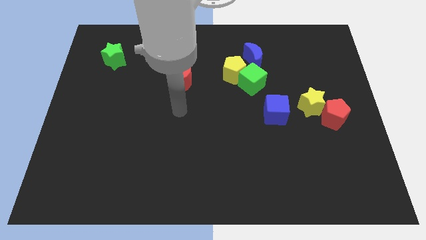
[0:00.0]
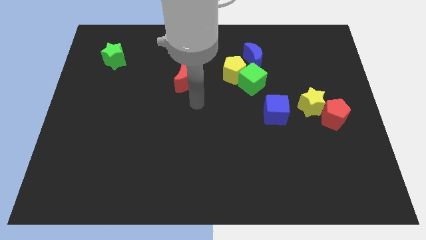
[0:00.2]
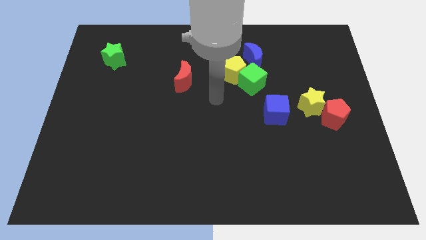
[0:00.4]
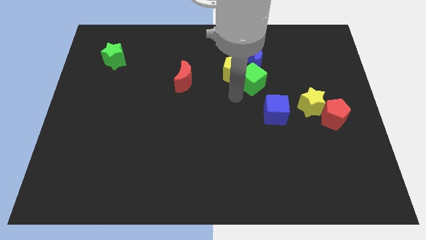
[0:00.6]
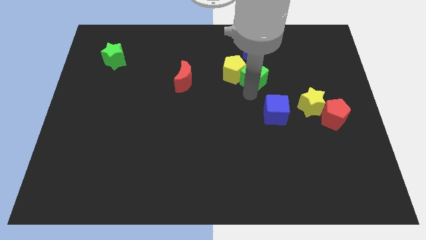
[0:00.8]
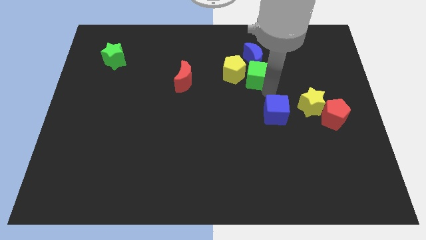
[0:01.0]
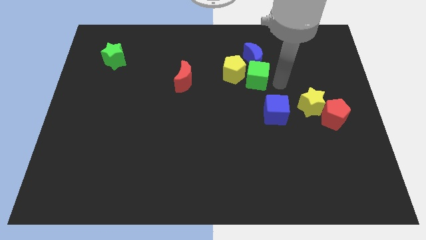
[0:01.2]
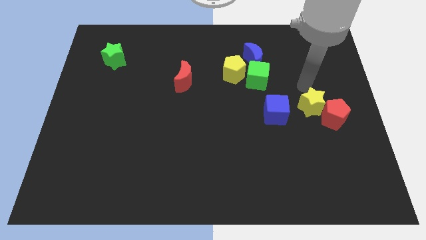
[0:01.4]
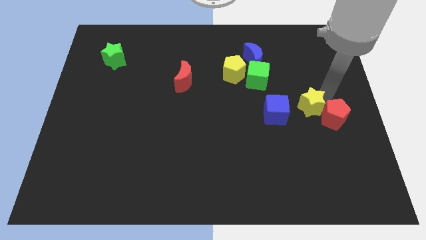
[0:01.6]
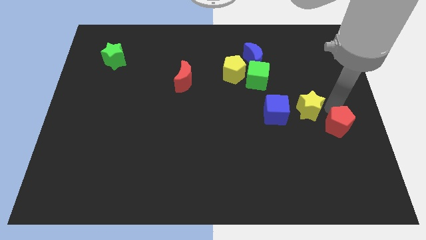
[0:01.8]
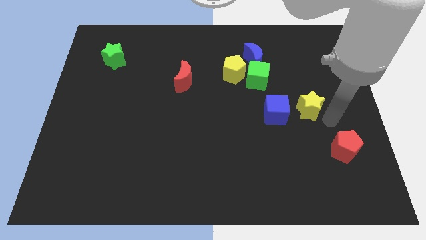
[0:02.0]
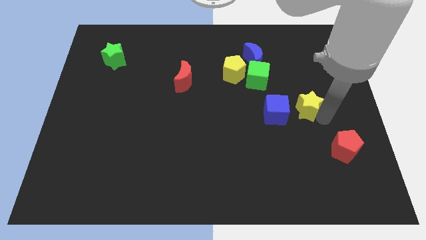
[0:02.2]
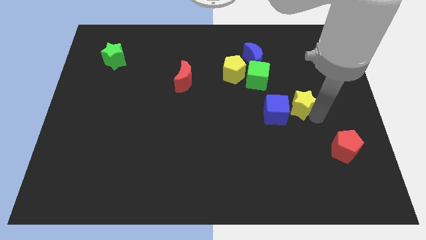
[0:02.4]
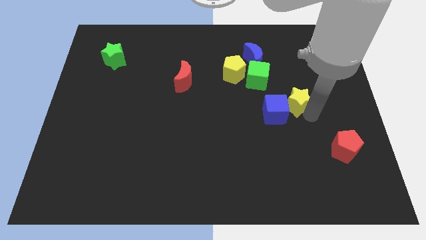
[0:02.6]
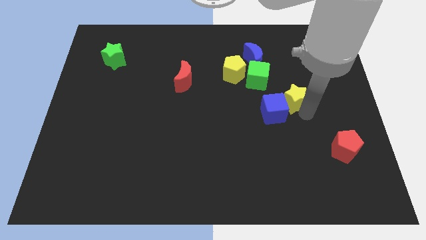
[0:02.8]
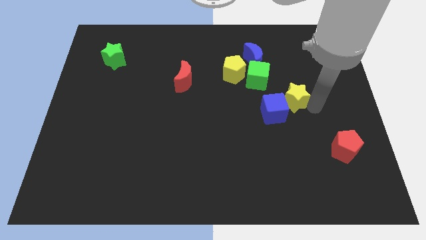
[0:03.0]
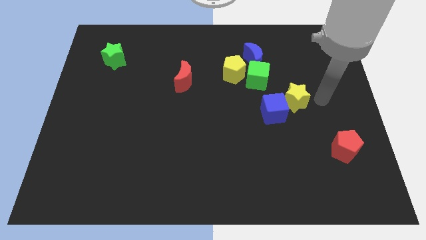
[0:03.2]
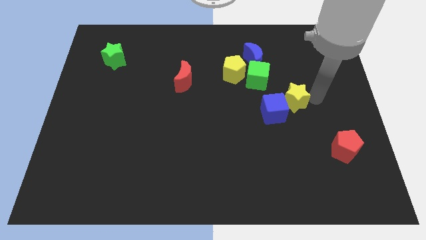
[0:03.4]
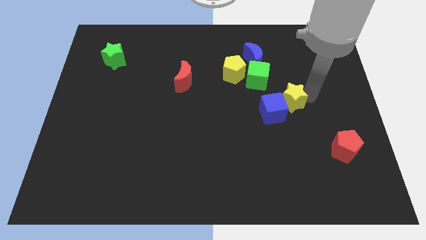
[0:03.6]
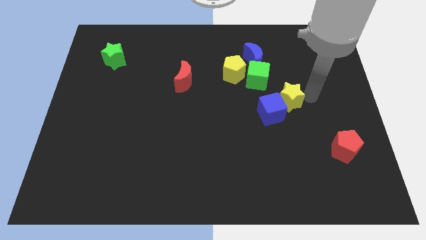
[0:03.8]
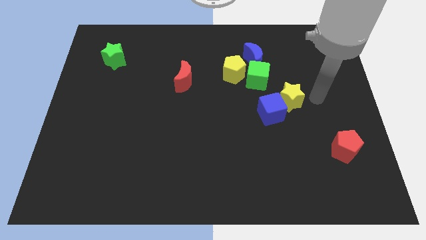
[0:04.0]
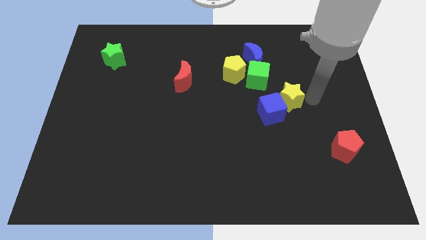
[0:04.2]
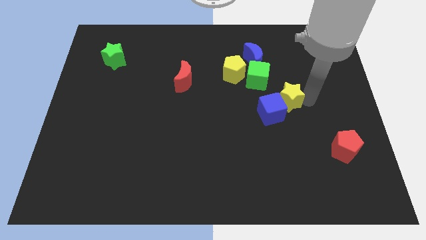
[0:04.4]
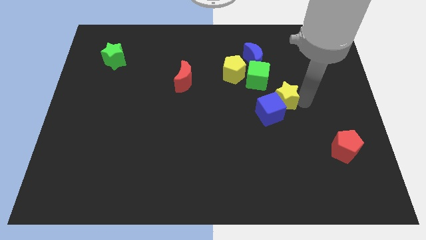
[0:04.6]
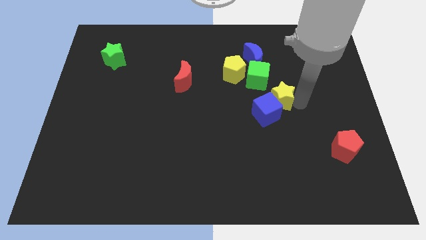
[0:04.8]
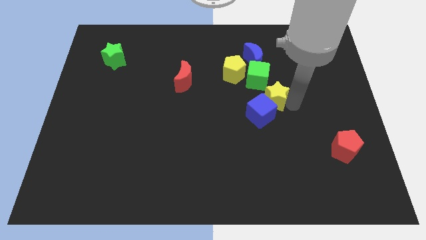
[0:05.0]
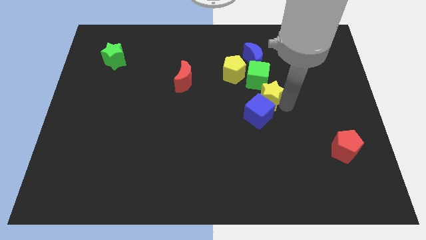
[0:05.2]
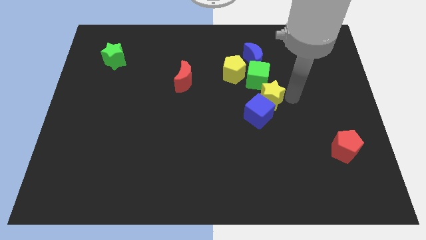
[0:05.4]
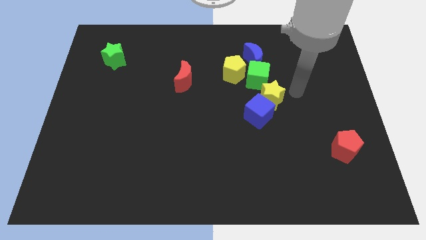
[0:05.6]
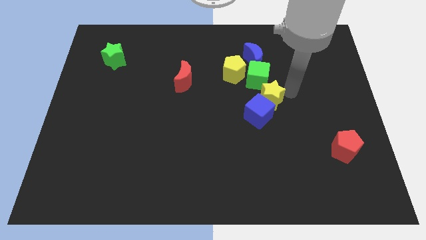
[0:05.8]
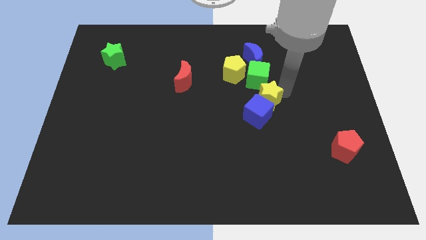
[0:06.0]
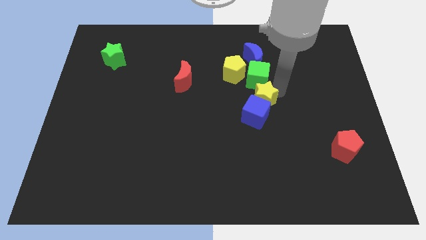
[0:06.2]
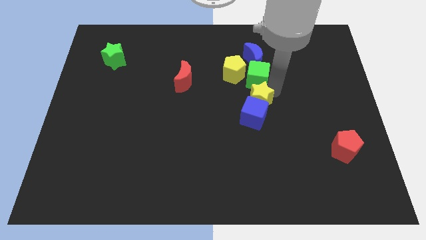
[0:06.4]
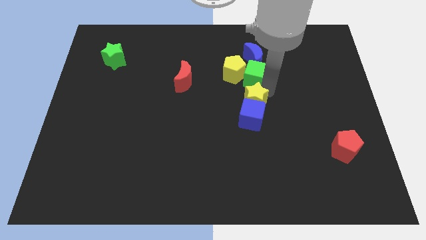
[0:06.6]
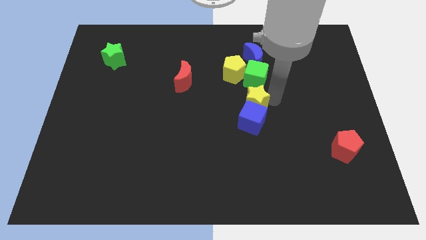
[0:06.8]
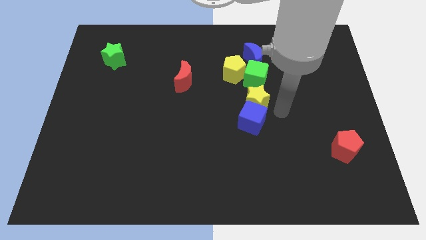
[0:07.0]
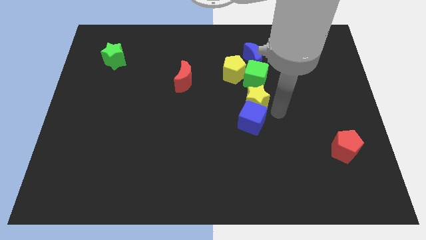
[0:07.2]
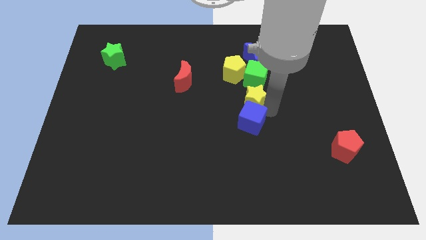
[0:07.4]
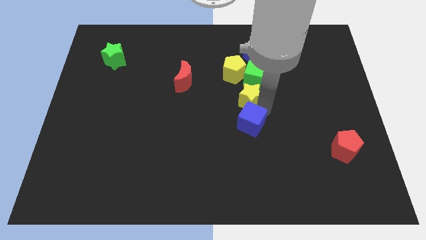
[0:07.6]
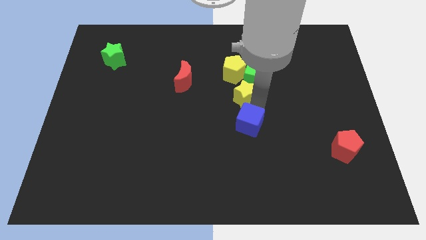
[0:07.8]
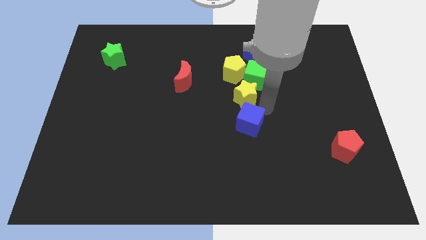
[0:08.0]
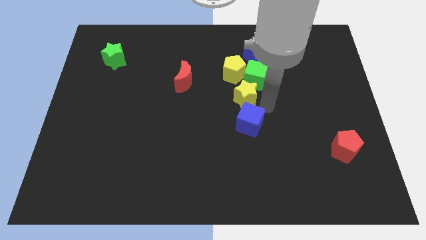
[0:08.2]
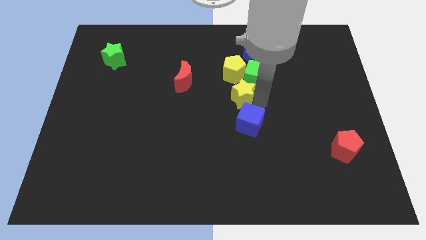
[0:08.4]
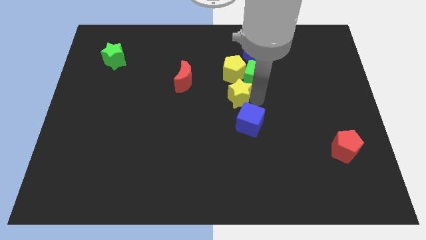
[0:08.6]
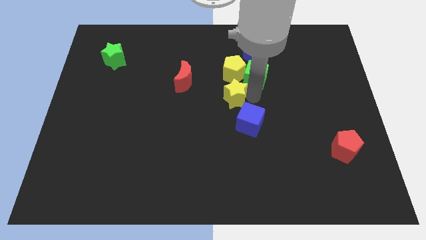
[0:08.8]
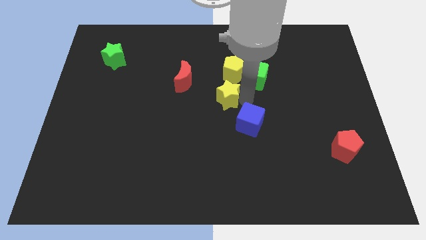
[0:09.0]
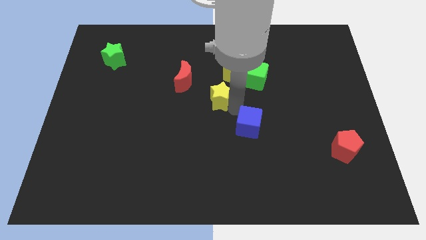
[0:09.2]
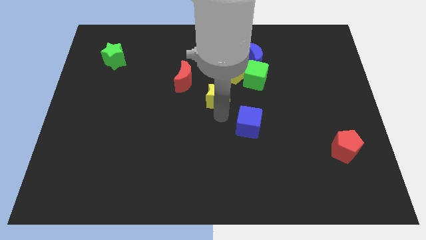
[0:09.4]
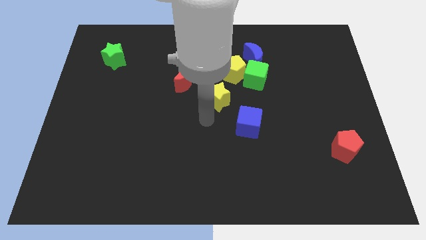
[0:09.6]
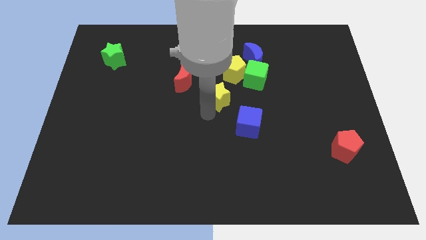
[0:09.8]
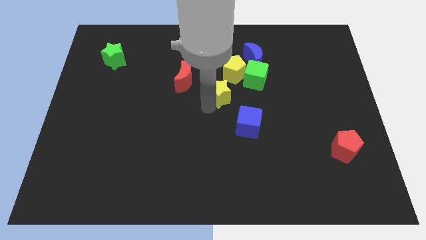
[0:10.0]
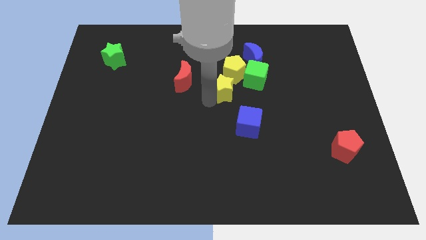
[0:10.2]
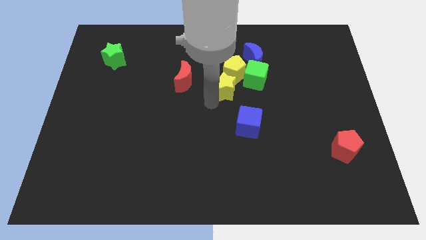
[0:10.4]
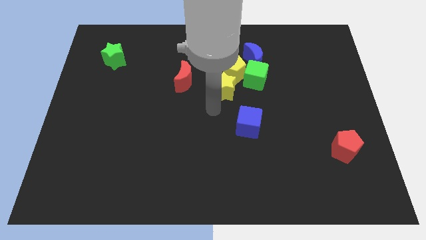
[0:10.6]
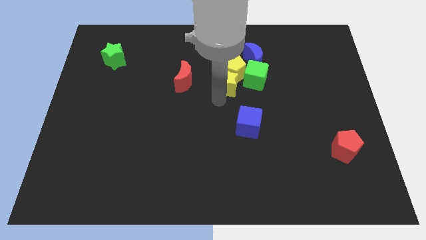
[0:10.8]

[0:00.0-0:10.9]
move the yellow star close to the yellow pentagon
